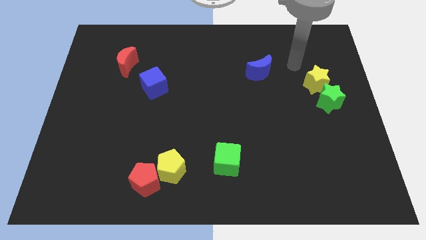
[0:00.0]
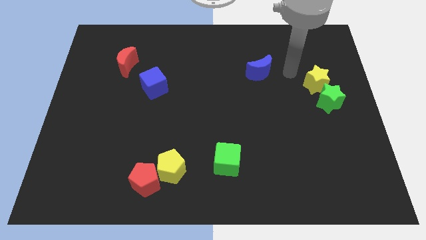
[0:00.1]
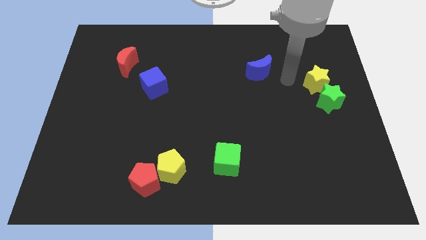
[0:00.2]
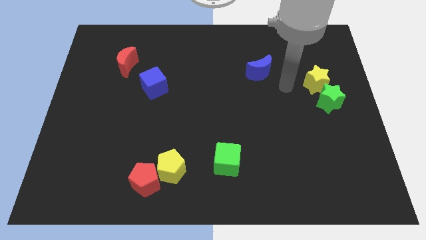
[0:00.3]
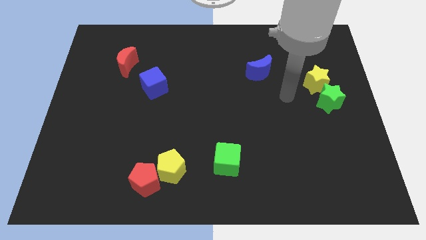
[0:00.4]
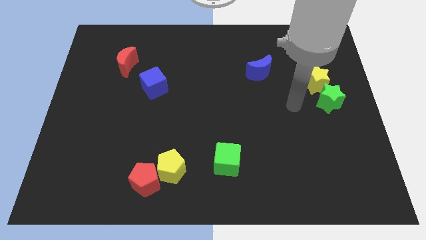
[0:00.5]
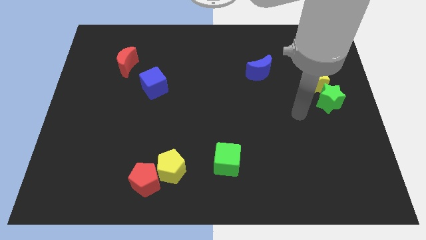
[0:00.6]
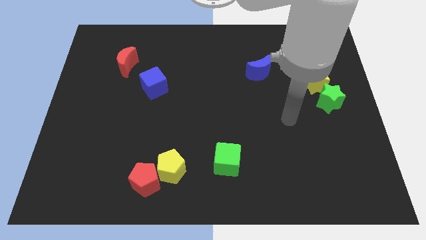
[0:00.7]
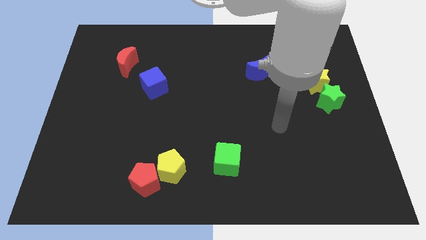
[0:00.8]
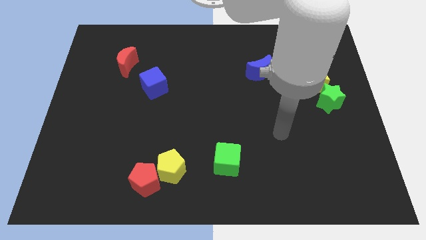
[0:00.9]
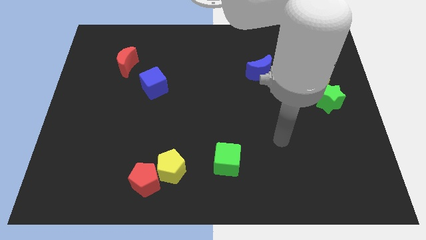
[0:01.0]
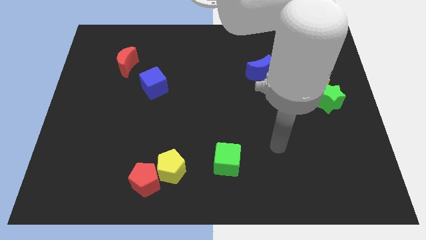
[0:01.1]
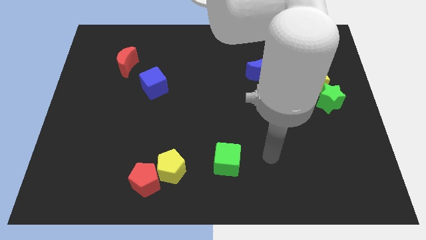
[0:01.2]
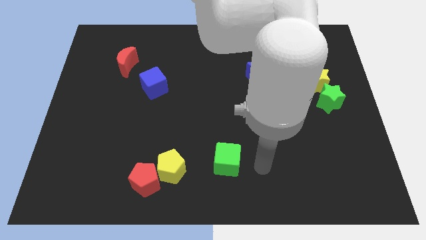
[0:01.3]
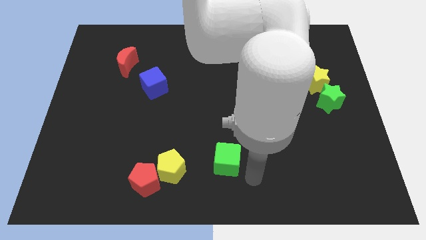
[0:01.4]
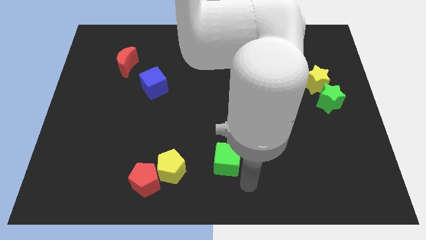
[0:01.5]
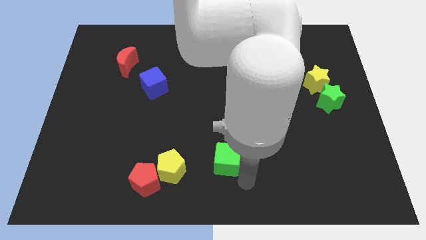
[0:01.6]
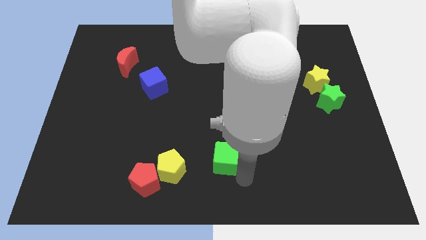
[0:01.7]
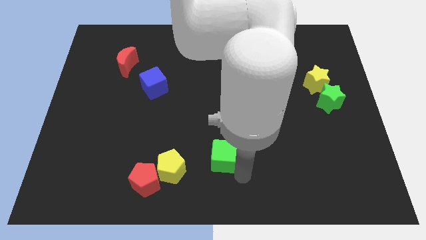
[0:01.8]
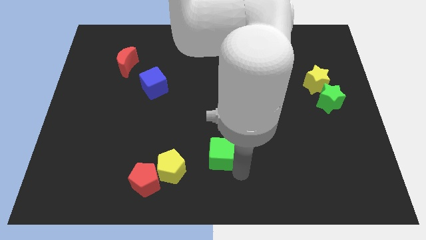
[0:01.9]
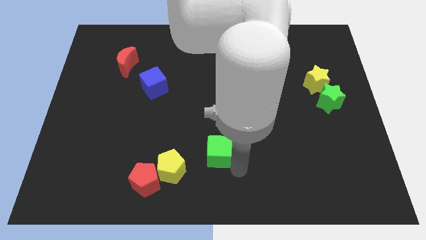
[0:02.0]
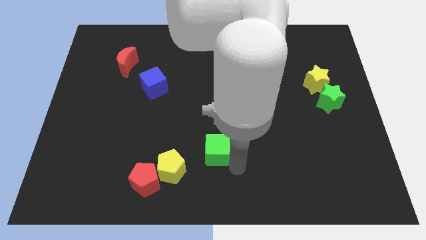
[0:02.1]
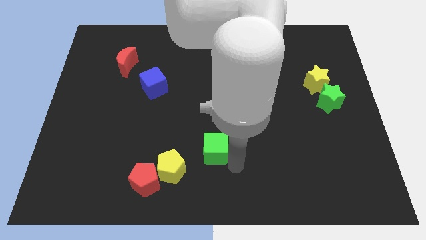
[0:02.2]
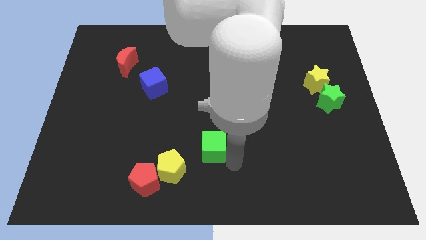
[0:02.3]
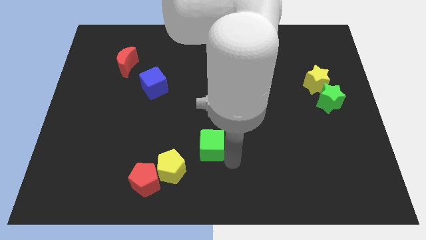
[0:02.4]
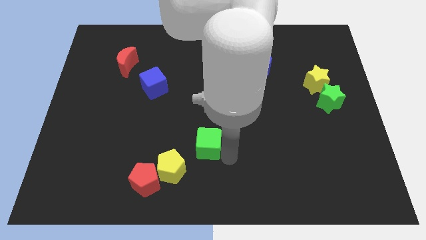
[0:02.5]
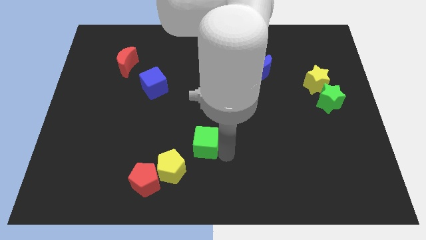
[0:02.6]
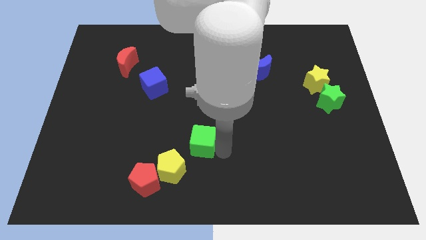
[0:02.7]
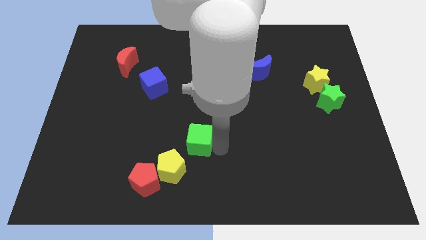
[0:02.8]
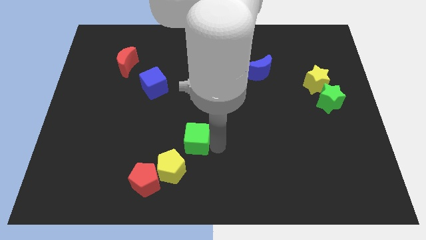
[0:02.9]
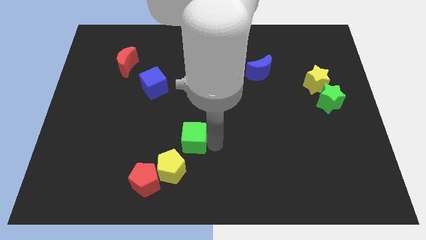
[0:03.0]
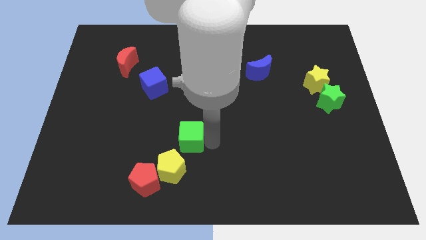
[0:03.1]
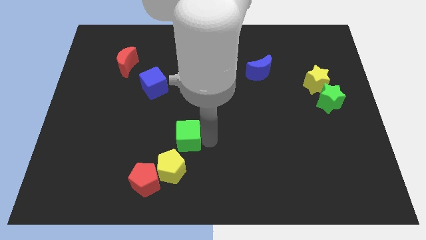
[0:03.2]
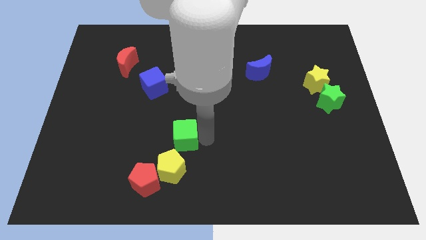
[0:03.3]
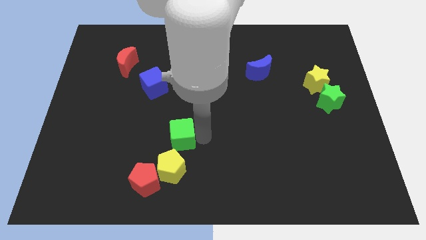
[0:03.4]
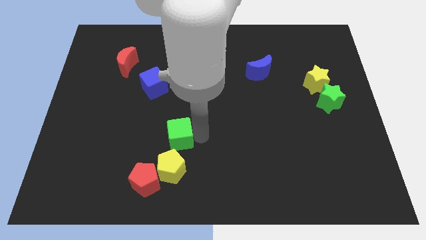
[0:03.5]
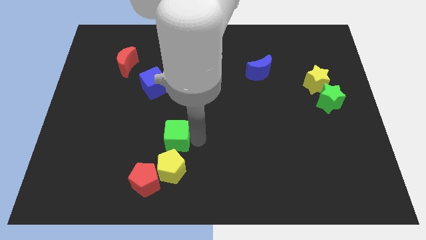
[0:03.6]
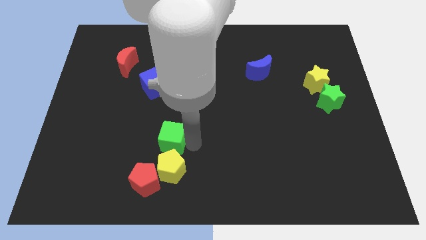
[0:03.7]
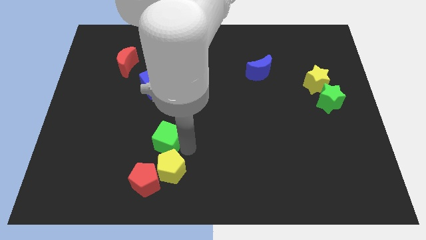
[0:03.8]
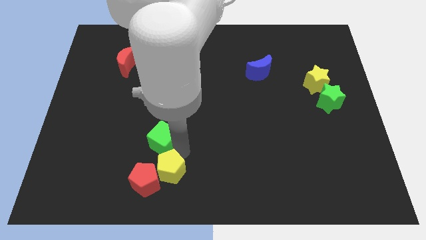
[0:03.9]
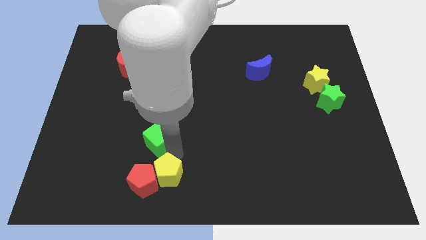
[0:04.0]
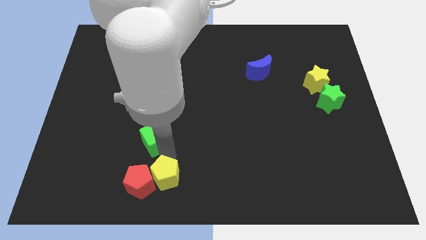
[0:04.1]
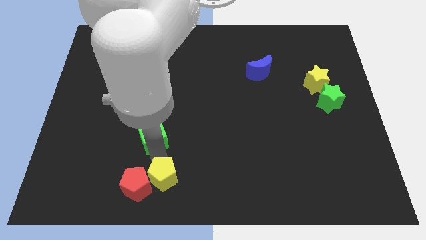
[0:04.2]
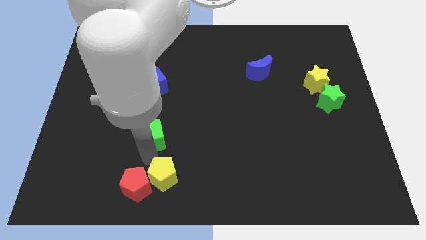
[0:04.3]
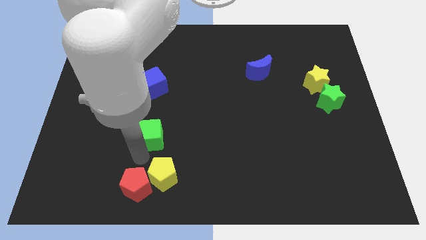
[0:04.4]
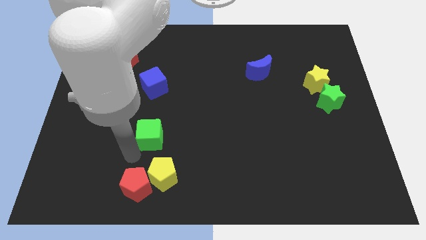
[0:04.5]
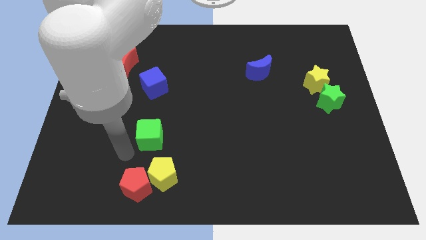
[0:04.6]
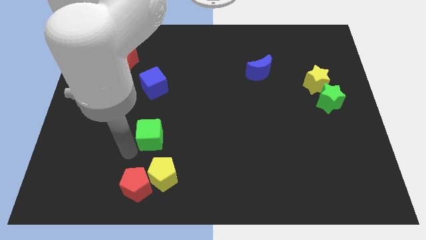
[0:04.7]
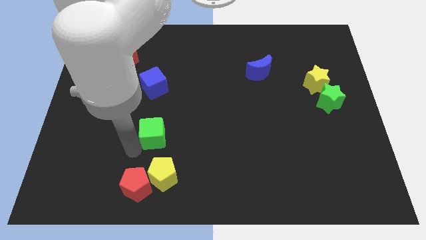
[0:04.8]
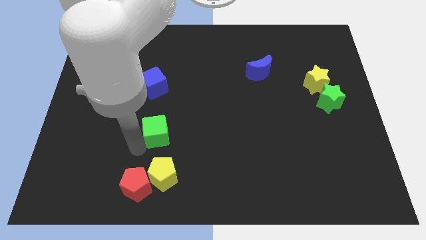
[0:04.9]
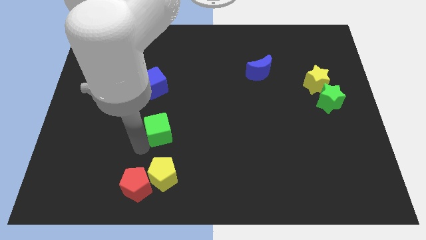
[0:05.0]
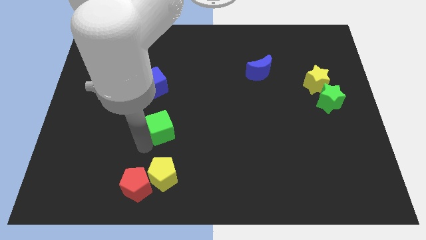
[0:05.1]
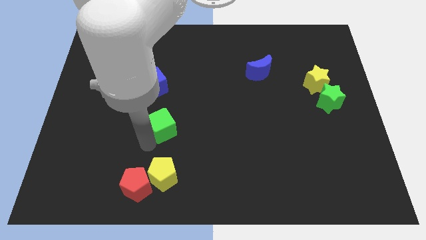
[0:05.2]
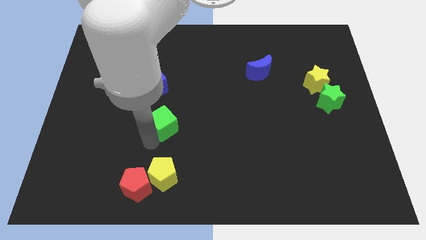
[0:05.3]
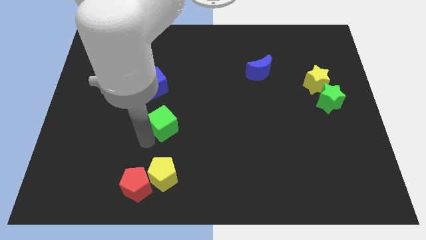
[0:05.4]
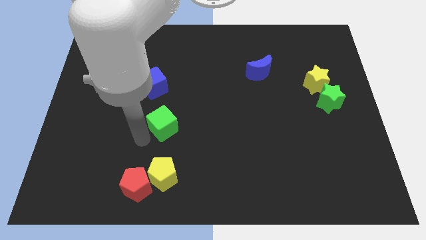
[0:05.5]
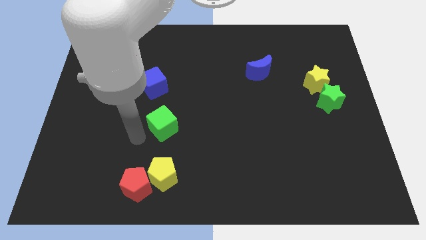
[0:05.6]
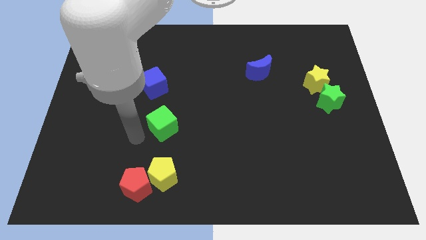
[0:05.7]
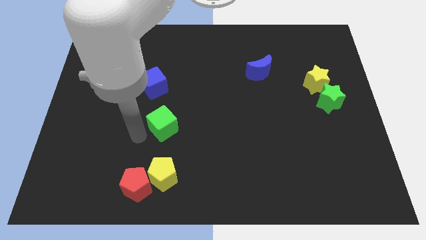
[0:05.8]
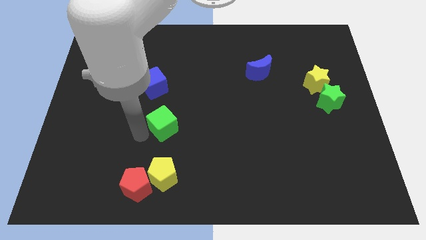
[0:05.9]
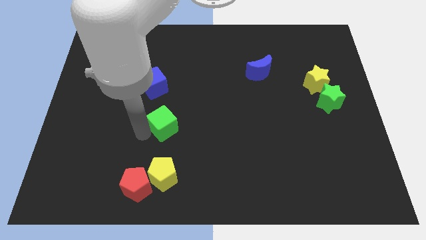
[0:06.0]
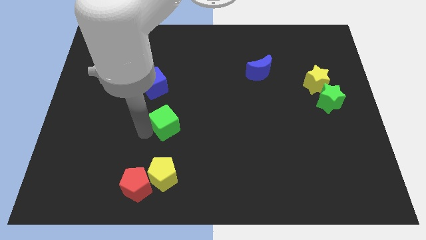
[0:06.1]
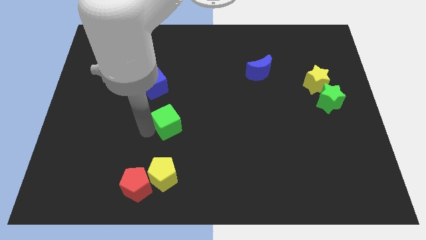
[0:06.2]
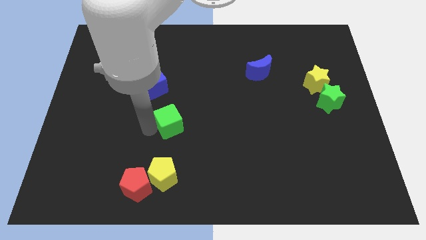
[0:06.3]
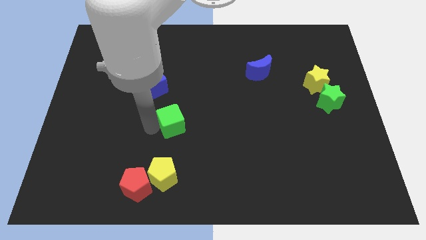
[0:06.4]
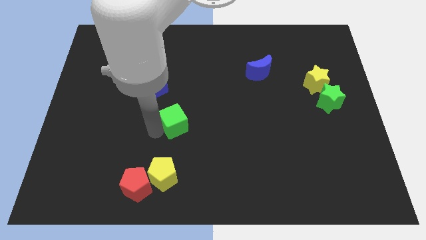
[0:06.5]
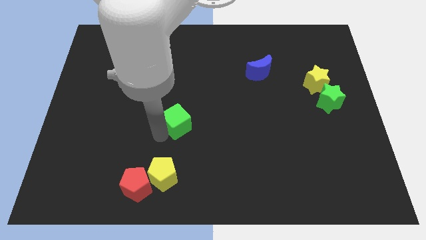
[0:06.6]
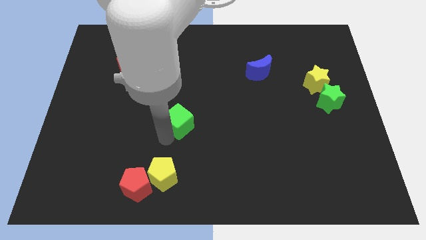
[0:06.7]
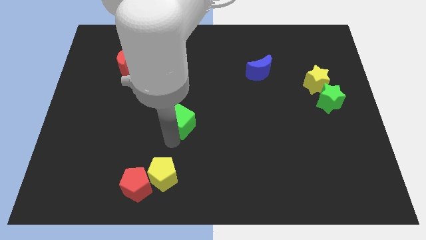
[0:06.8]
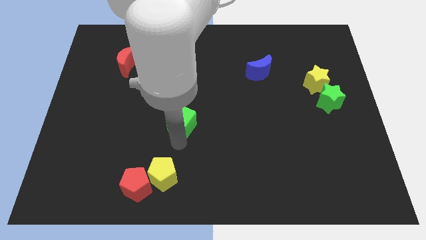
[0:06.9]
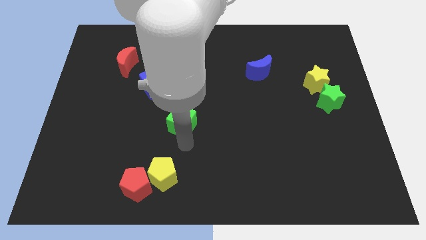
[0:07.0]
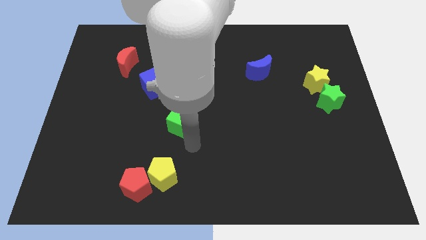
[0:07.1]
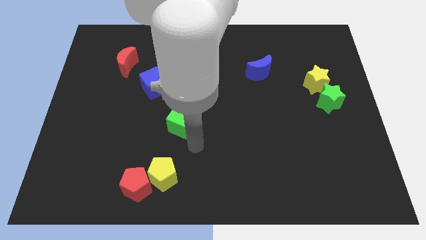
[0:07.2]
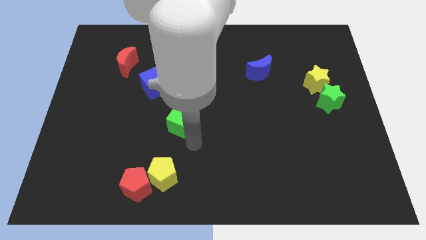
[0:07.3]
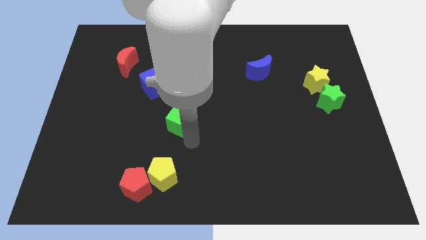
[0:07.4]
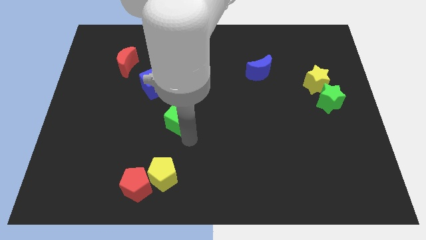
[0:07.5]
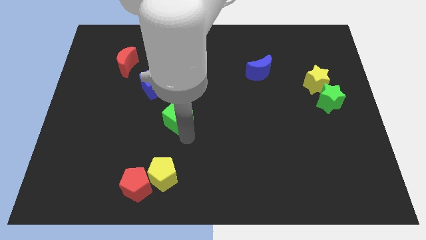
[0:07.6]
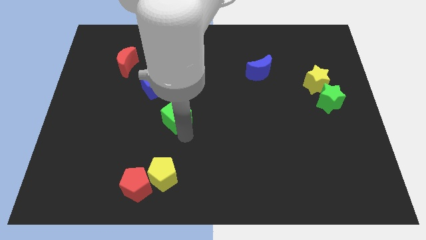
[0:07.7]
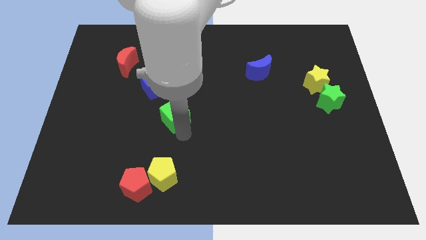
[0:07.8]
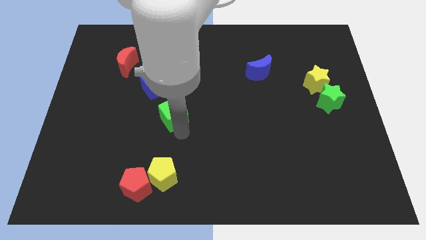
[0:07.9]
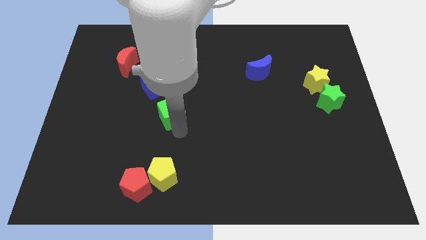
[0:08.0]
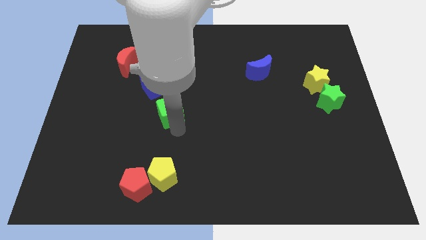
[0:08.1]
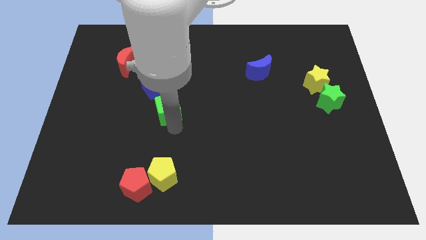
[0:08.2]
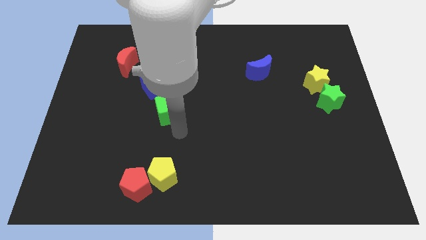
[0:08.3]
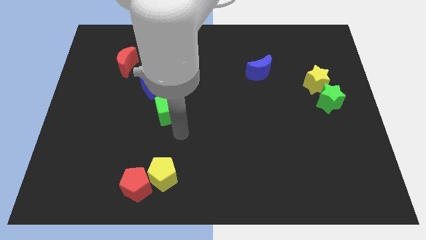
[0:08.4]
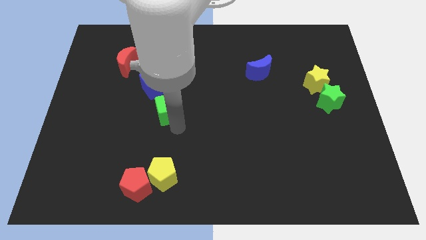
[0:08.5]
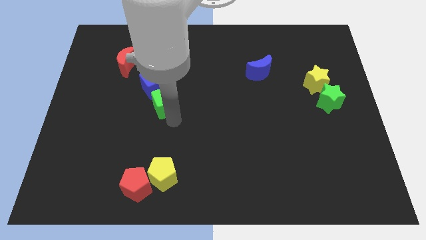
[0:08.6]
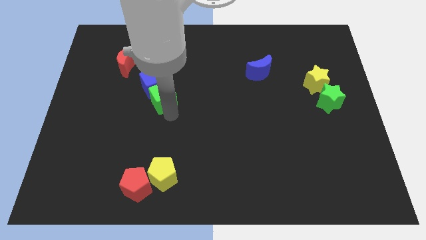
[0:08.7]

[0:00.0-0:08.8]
push the green cube to the blue cube
